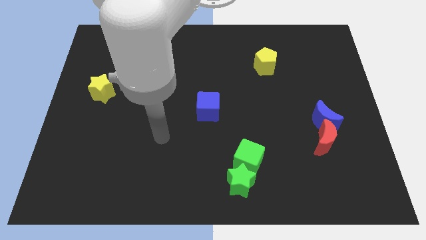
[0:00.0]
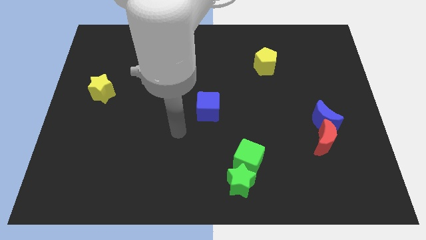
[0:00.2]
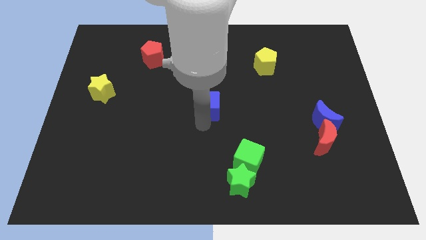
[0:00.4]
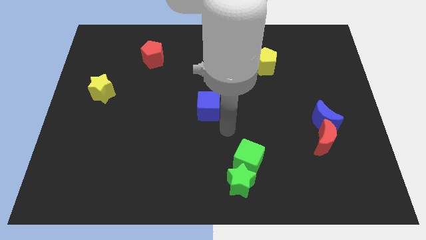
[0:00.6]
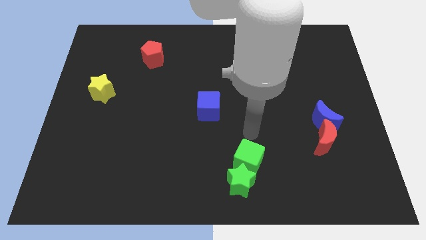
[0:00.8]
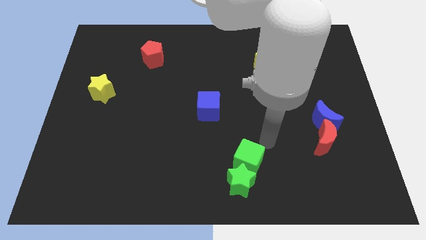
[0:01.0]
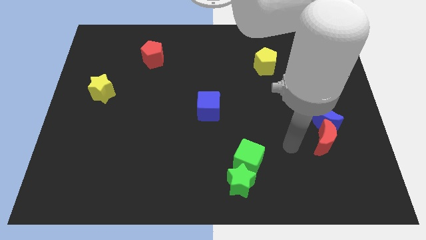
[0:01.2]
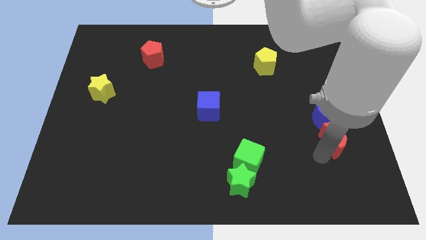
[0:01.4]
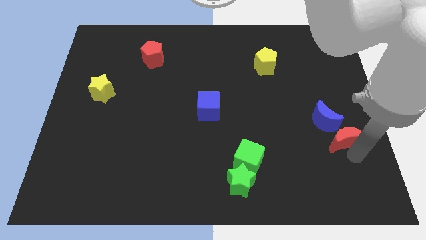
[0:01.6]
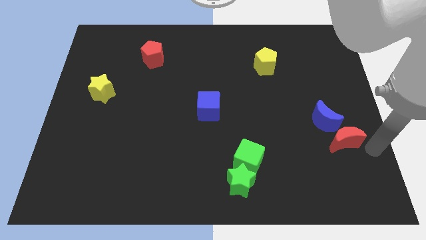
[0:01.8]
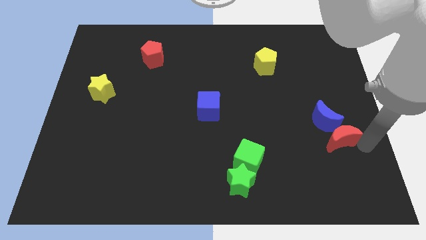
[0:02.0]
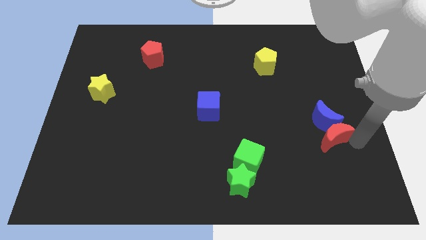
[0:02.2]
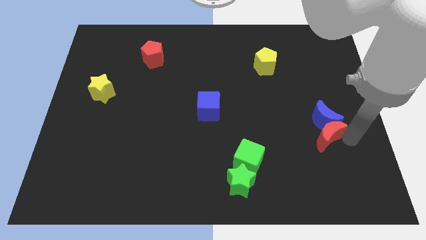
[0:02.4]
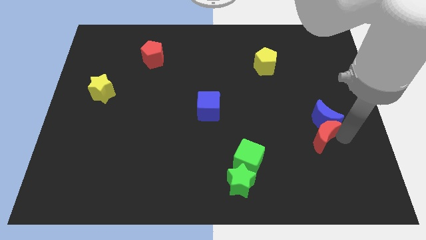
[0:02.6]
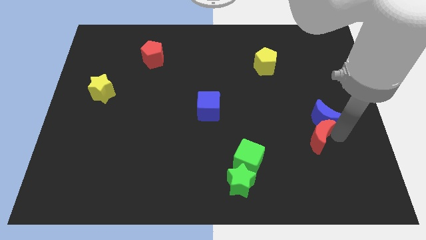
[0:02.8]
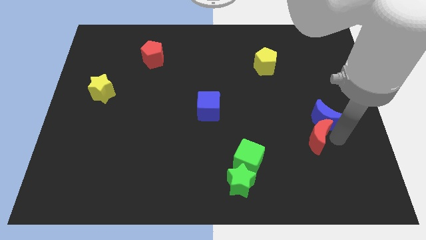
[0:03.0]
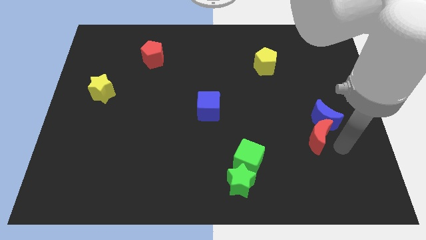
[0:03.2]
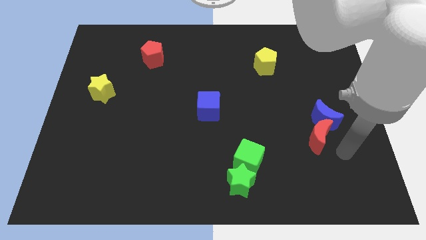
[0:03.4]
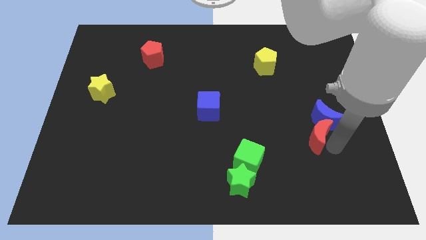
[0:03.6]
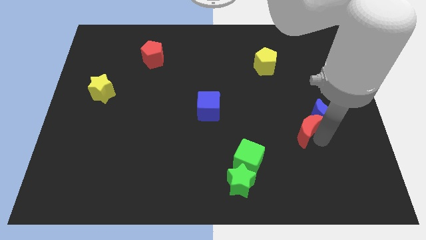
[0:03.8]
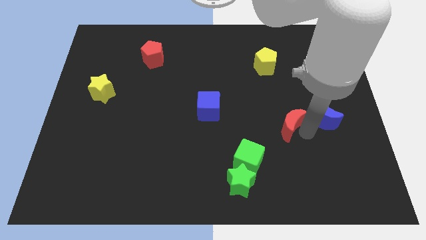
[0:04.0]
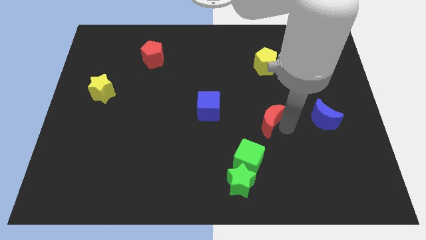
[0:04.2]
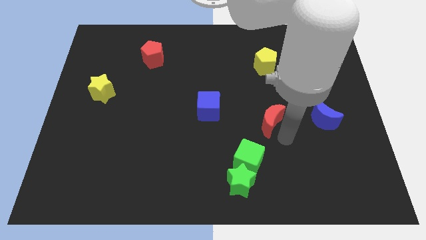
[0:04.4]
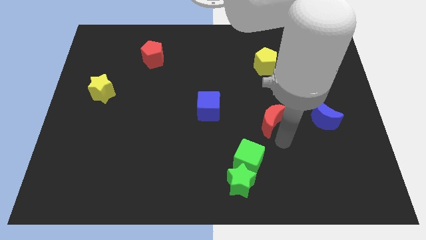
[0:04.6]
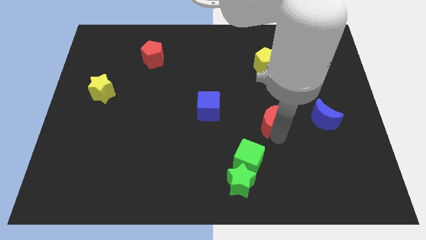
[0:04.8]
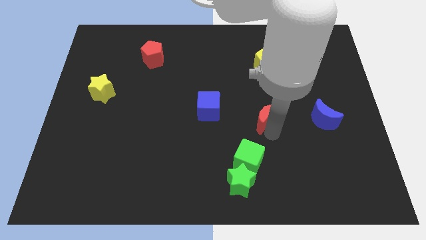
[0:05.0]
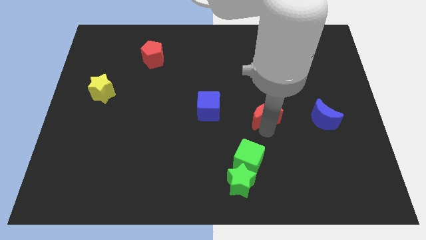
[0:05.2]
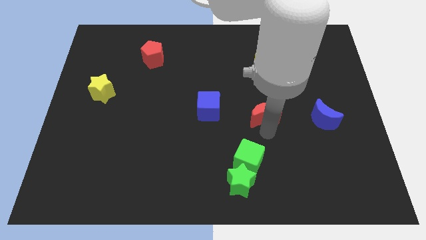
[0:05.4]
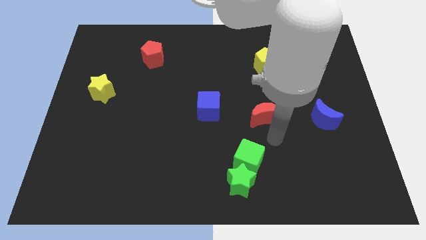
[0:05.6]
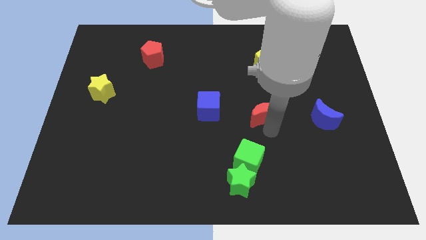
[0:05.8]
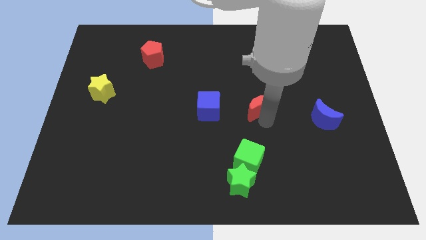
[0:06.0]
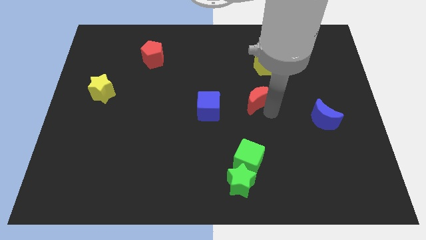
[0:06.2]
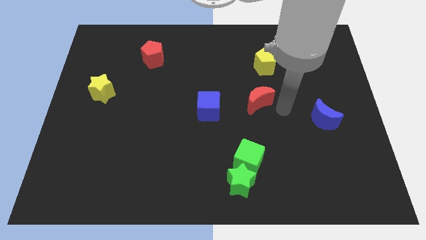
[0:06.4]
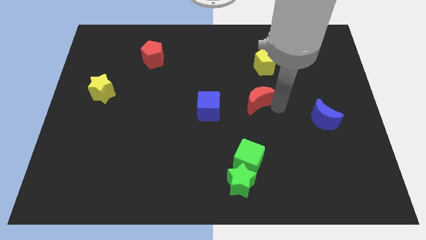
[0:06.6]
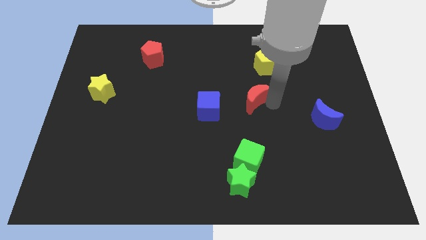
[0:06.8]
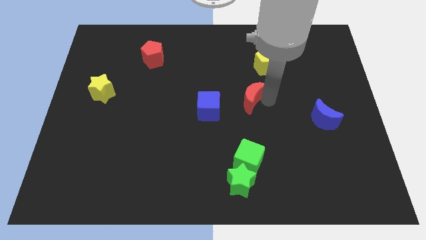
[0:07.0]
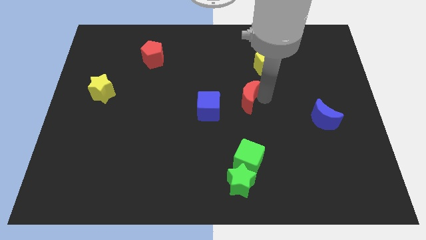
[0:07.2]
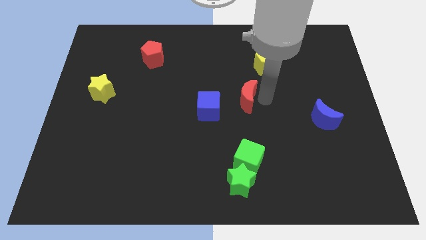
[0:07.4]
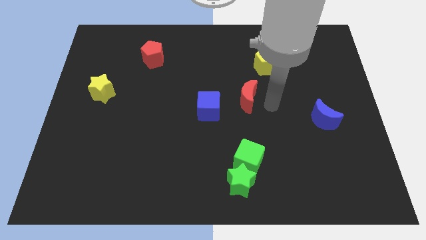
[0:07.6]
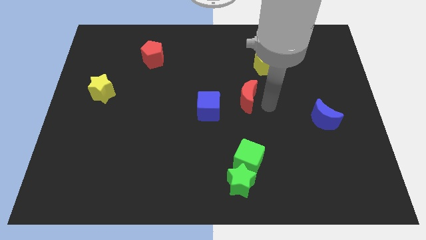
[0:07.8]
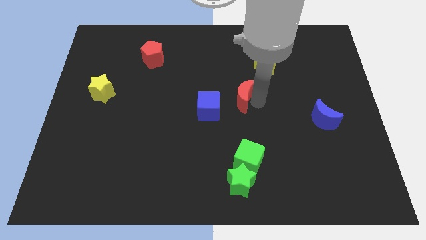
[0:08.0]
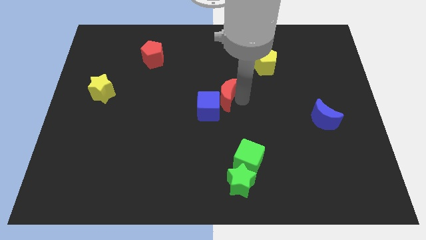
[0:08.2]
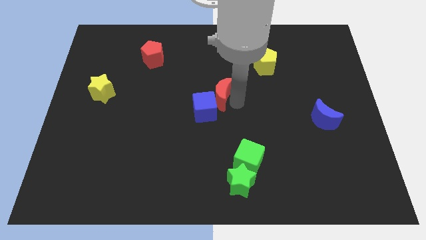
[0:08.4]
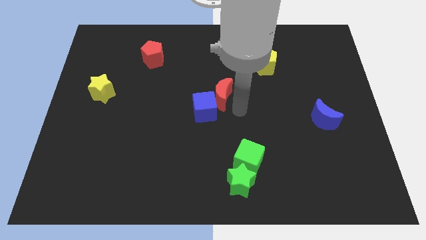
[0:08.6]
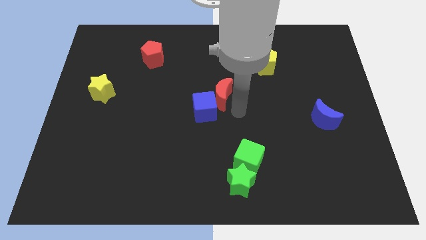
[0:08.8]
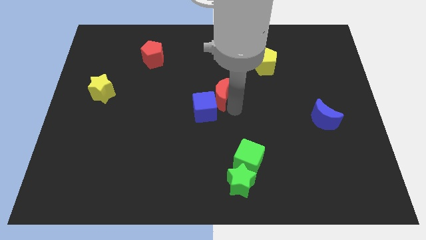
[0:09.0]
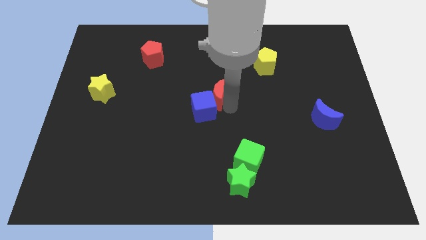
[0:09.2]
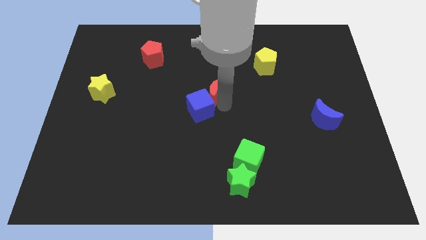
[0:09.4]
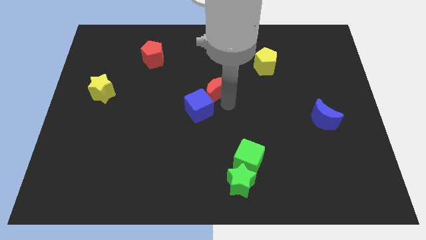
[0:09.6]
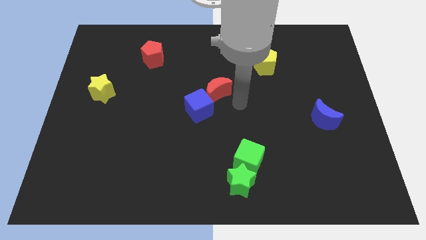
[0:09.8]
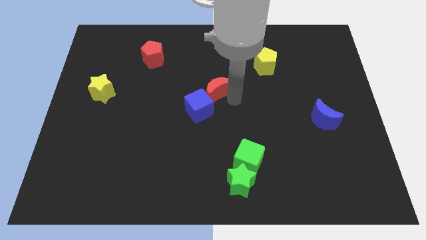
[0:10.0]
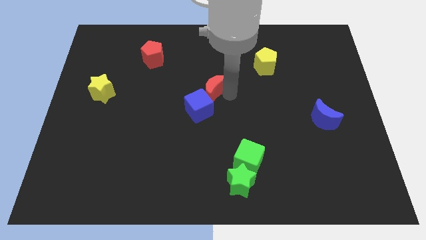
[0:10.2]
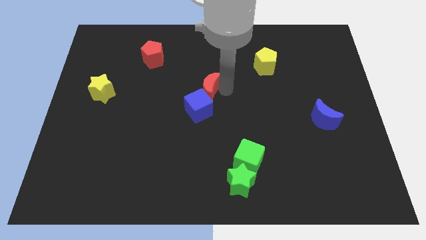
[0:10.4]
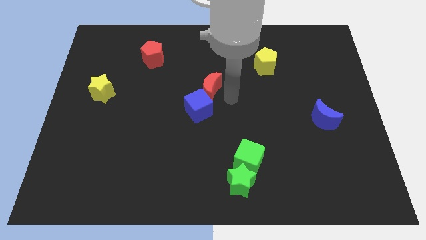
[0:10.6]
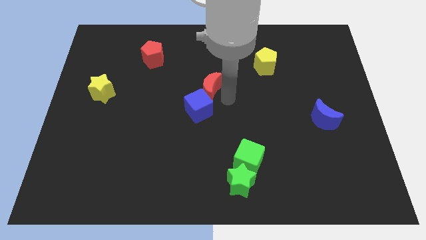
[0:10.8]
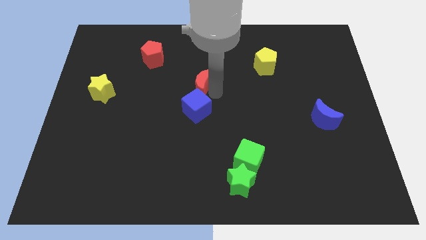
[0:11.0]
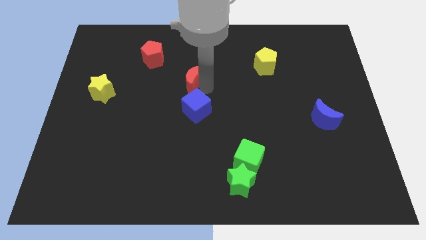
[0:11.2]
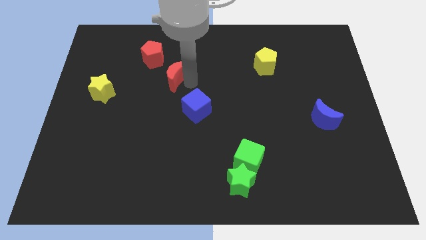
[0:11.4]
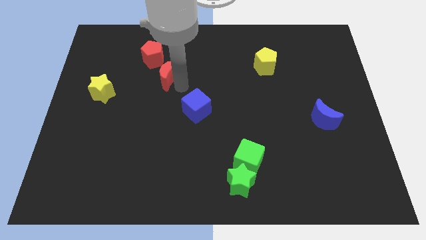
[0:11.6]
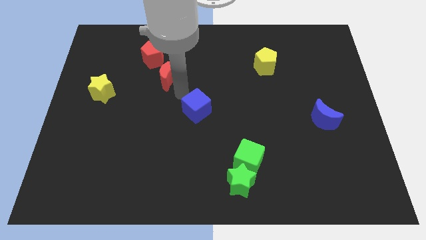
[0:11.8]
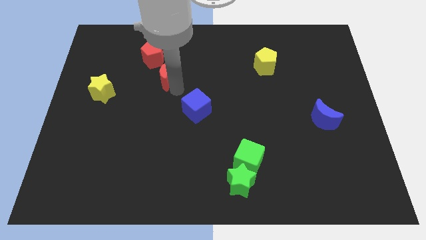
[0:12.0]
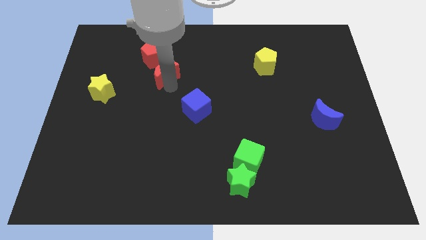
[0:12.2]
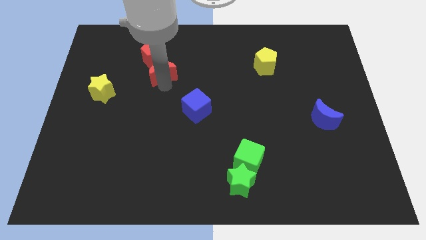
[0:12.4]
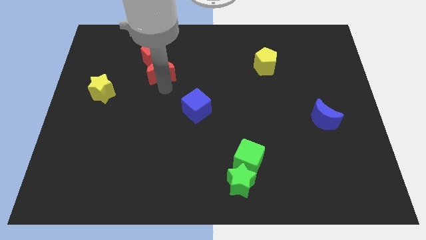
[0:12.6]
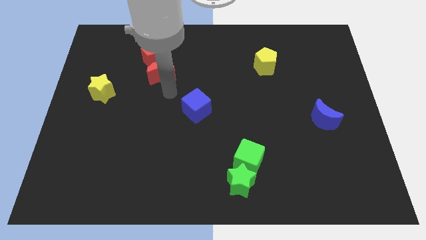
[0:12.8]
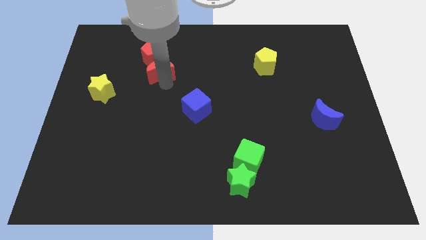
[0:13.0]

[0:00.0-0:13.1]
push the red moon to the red pentagon
